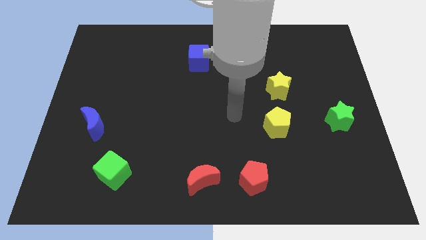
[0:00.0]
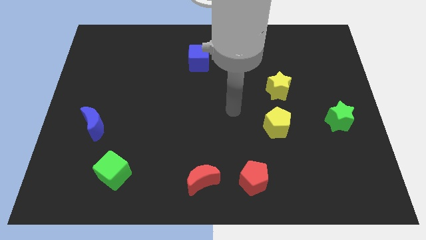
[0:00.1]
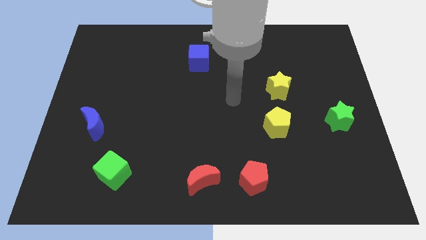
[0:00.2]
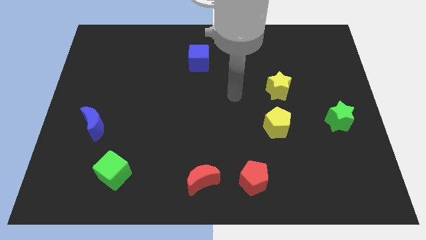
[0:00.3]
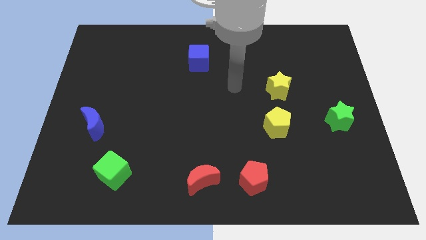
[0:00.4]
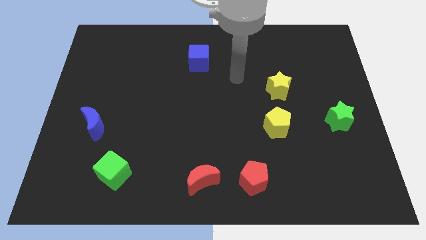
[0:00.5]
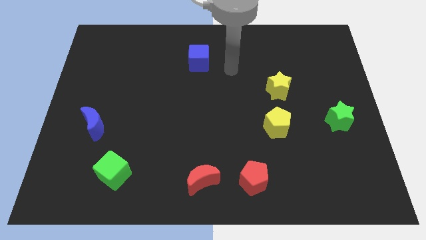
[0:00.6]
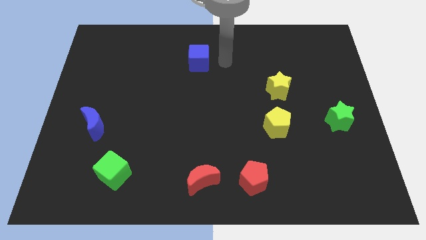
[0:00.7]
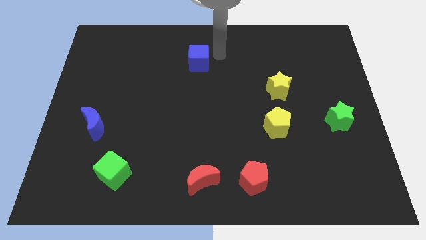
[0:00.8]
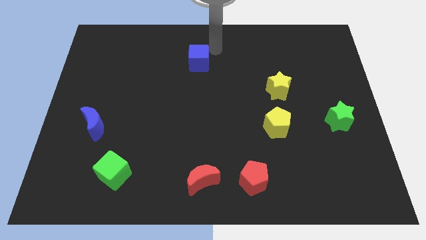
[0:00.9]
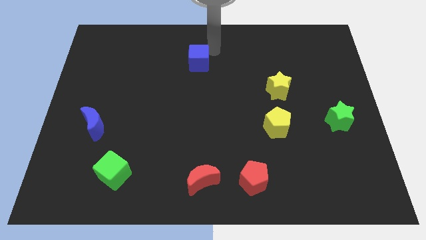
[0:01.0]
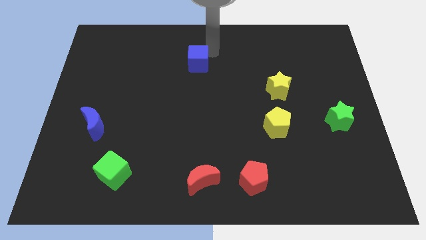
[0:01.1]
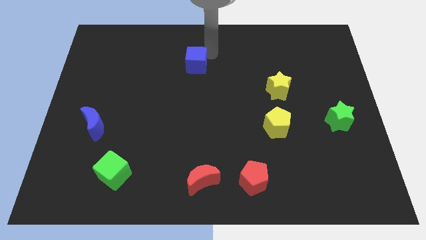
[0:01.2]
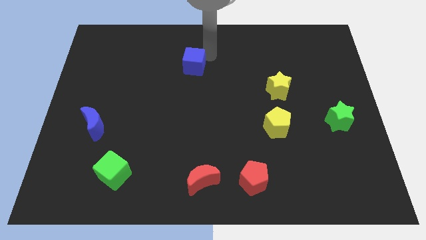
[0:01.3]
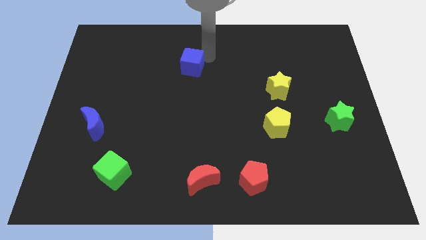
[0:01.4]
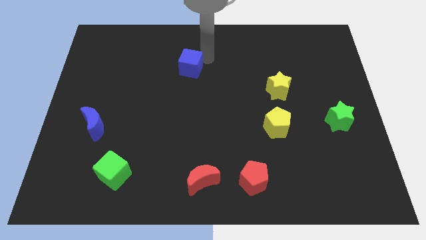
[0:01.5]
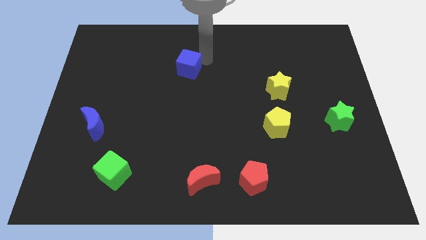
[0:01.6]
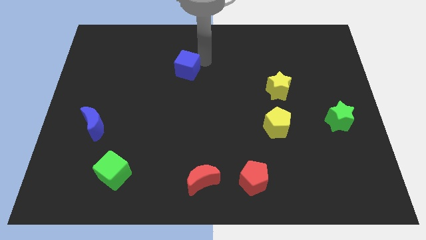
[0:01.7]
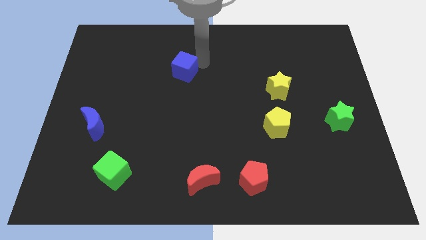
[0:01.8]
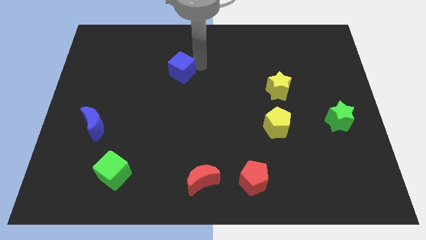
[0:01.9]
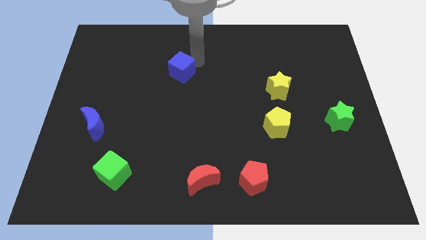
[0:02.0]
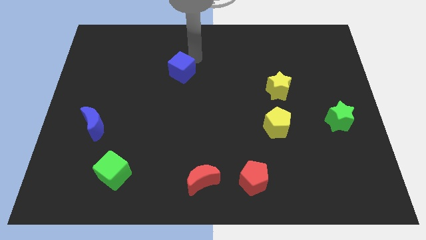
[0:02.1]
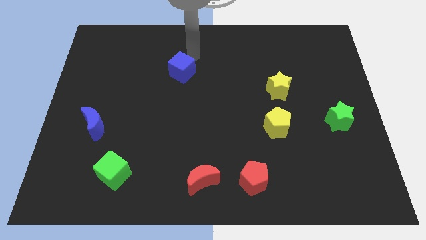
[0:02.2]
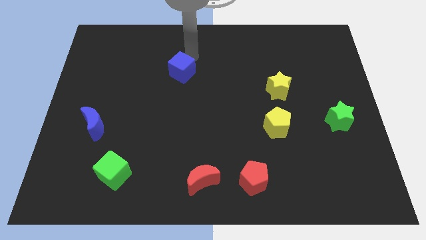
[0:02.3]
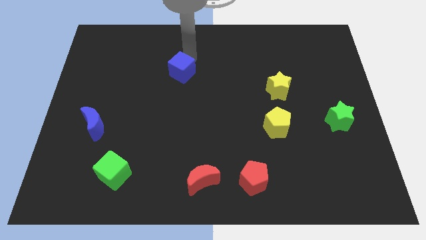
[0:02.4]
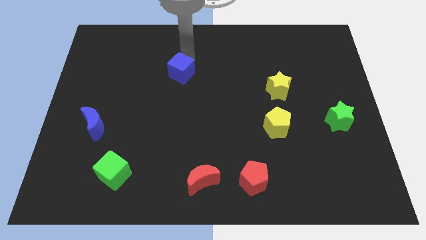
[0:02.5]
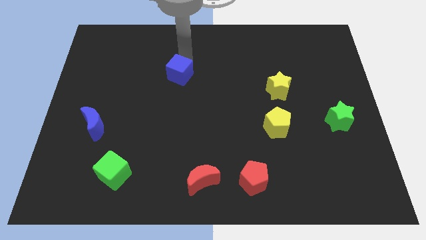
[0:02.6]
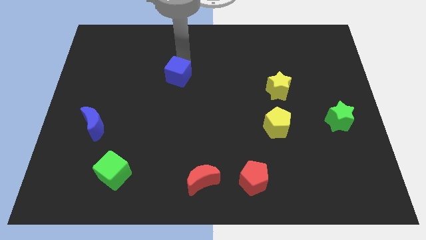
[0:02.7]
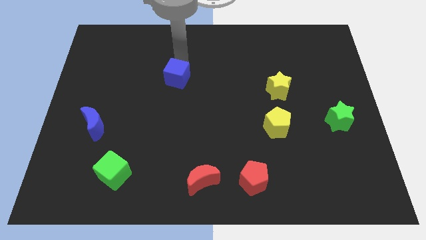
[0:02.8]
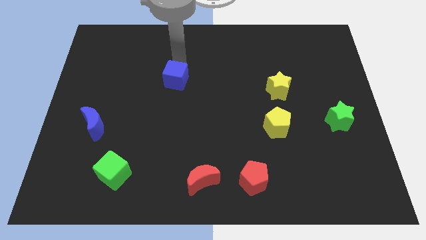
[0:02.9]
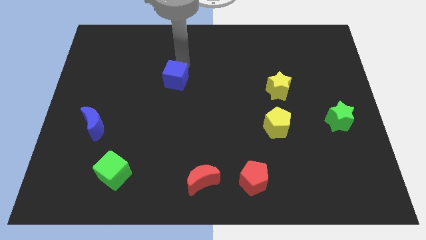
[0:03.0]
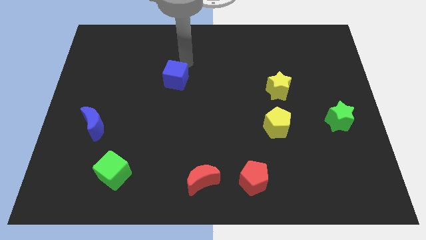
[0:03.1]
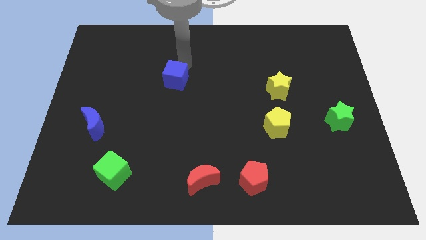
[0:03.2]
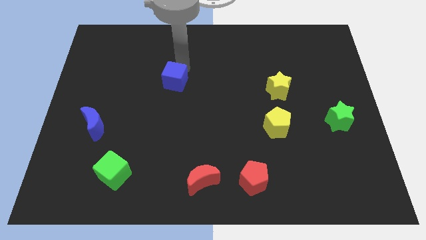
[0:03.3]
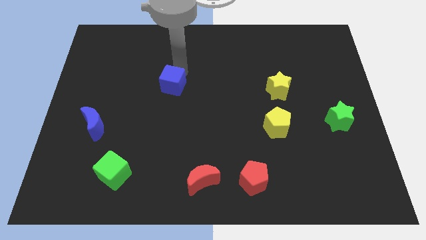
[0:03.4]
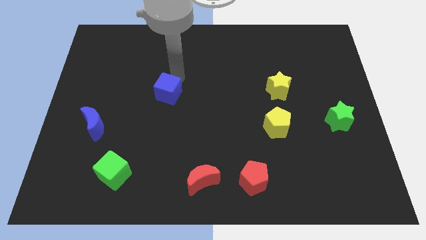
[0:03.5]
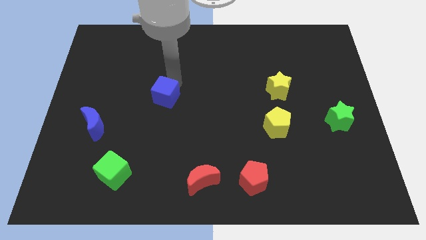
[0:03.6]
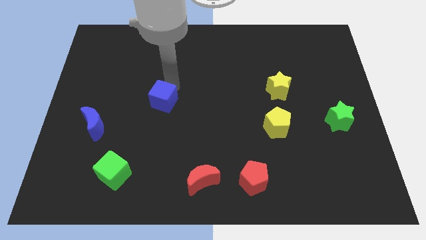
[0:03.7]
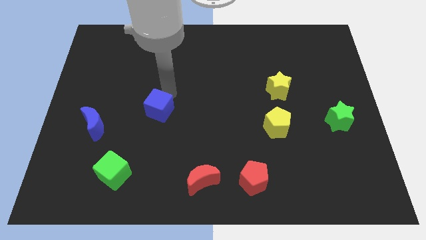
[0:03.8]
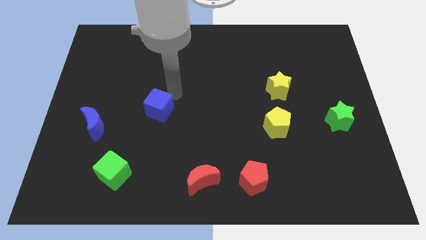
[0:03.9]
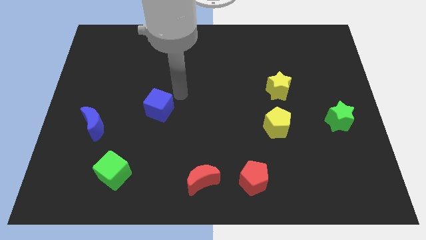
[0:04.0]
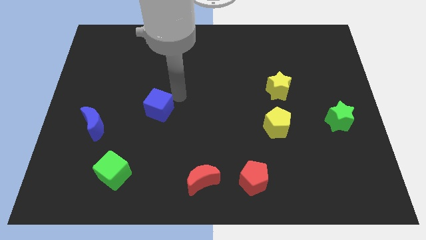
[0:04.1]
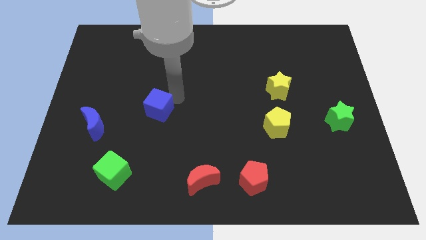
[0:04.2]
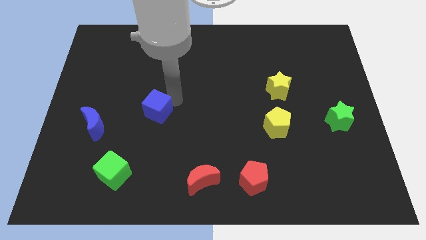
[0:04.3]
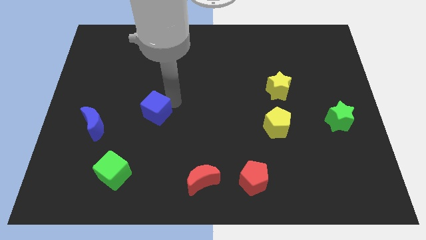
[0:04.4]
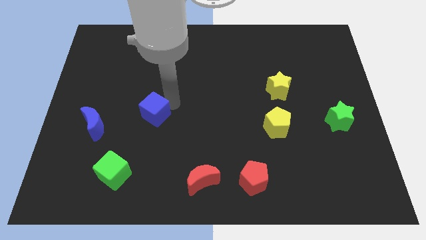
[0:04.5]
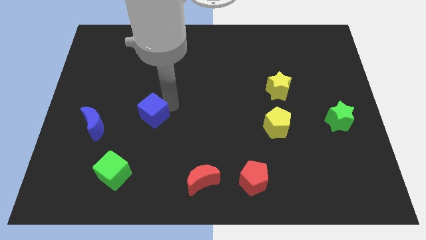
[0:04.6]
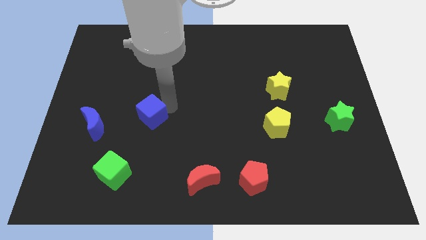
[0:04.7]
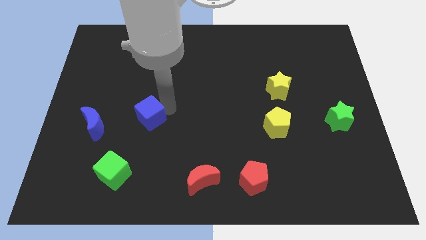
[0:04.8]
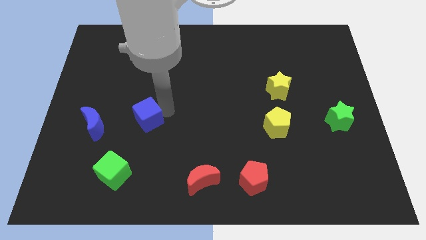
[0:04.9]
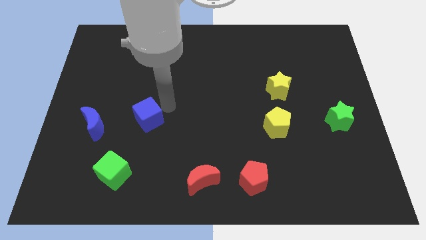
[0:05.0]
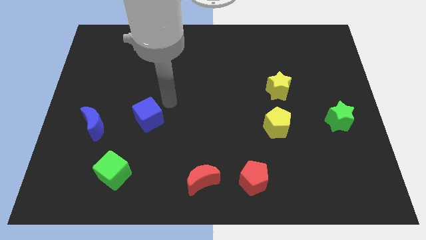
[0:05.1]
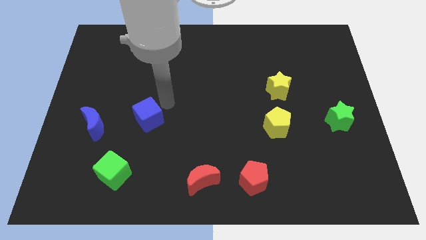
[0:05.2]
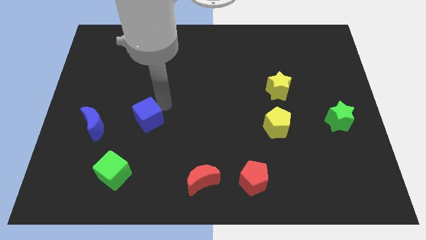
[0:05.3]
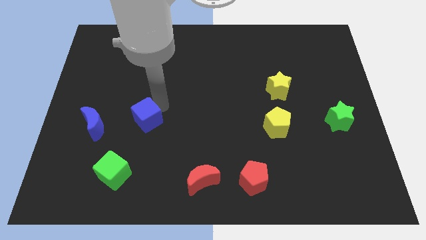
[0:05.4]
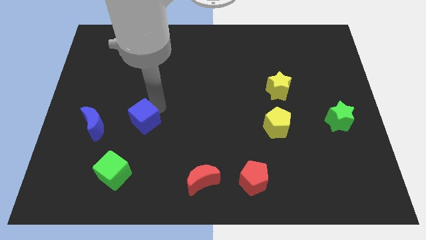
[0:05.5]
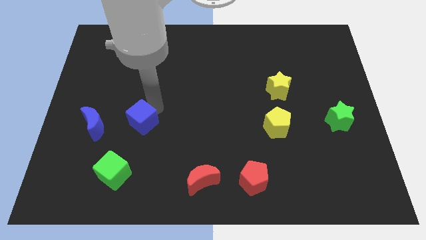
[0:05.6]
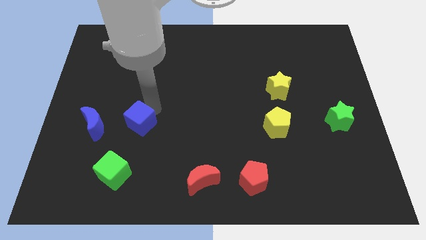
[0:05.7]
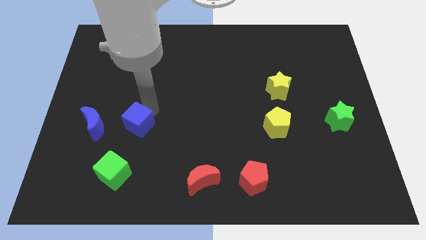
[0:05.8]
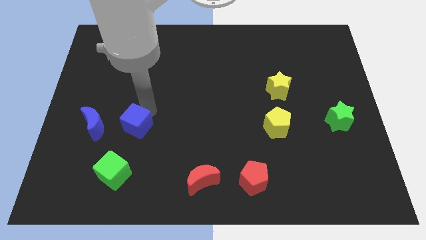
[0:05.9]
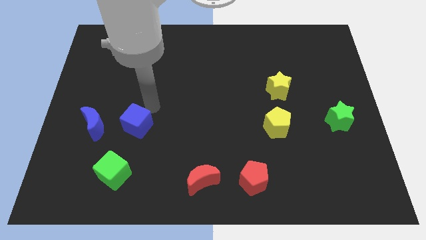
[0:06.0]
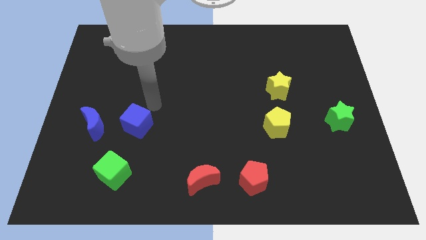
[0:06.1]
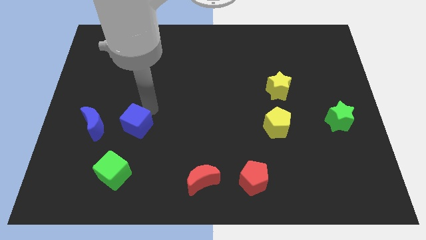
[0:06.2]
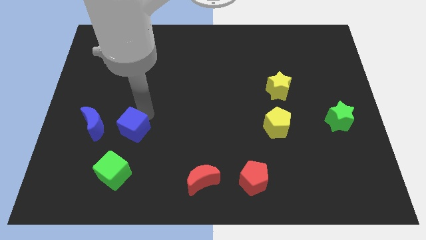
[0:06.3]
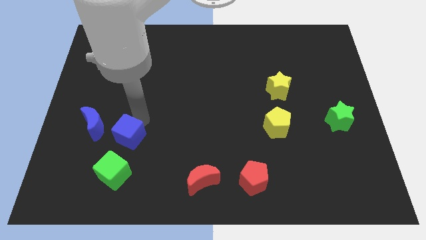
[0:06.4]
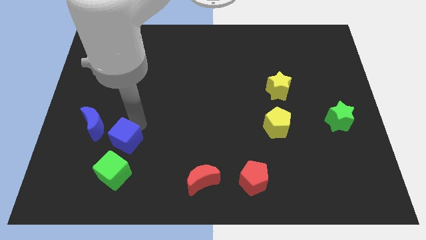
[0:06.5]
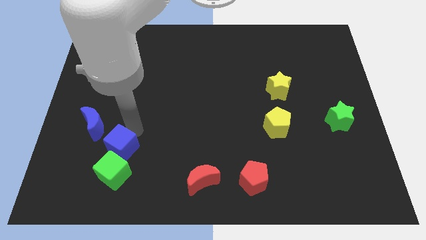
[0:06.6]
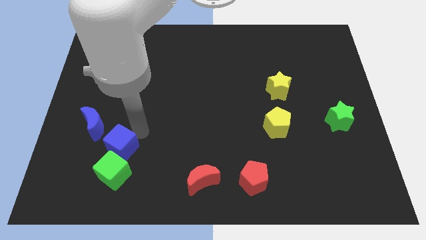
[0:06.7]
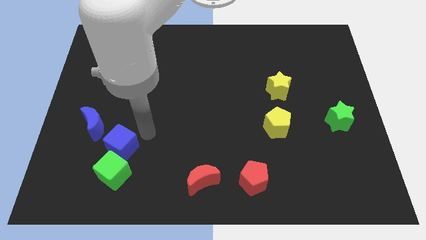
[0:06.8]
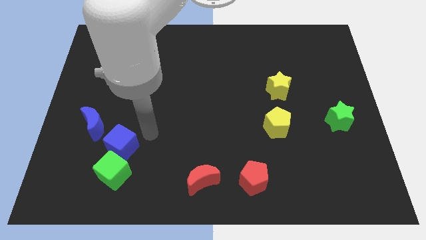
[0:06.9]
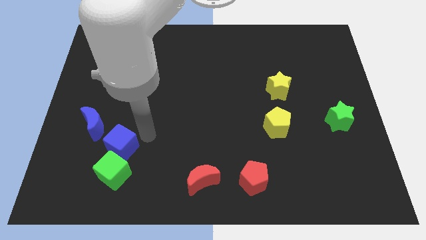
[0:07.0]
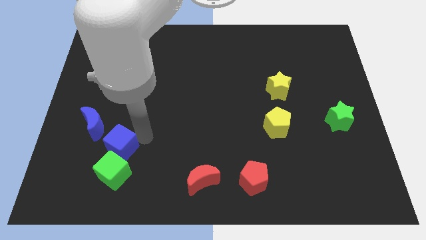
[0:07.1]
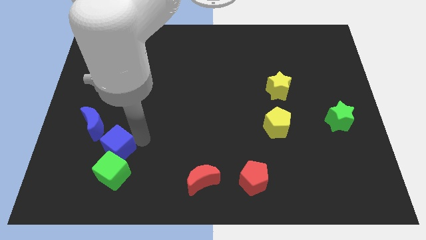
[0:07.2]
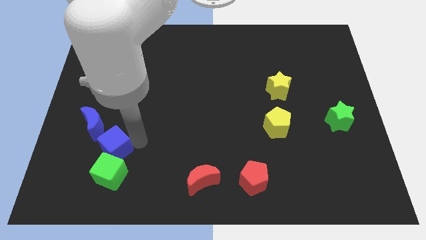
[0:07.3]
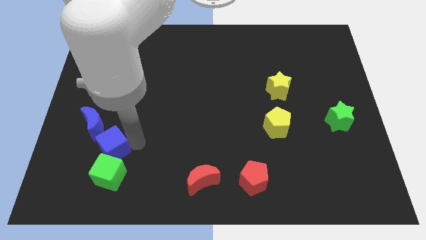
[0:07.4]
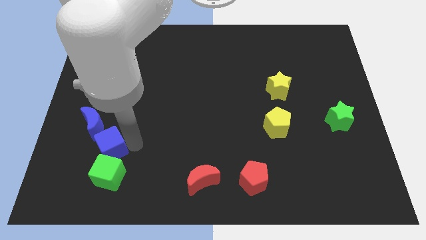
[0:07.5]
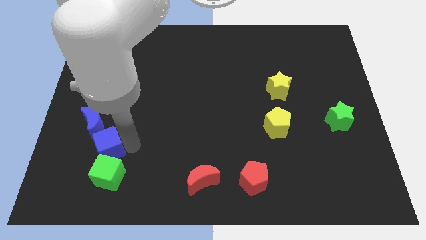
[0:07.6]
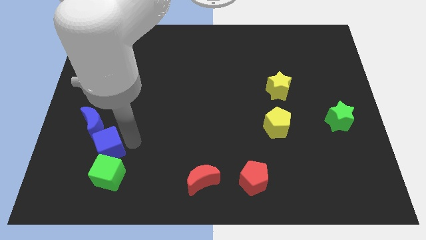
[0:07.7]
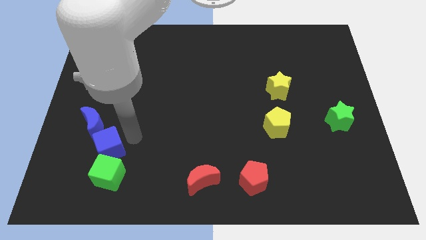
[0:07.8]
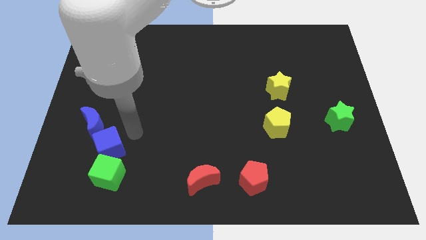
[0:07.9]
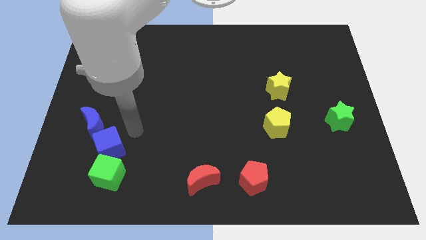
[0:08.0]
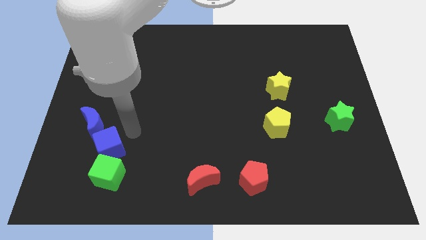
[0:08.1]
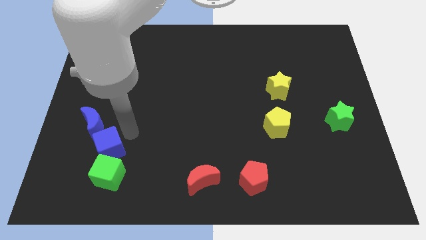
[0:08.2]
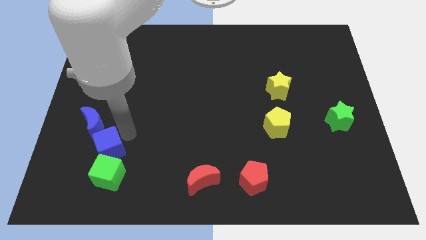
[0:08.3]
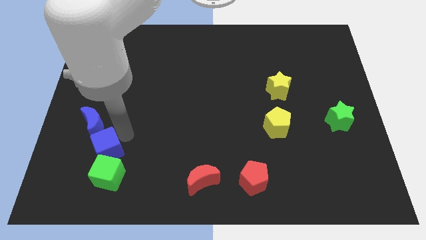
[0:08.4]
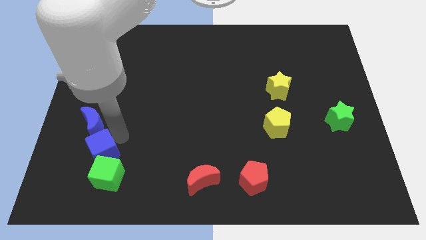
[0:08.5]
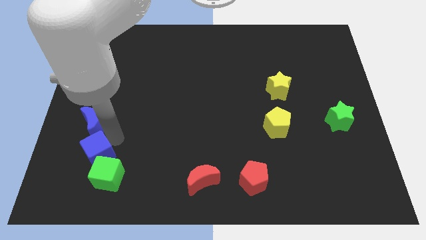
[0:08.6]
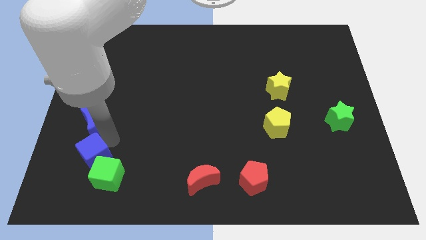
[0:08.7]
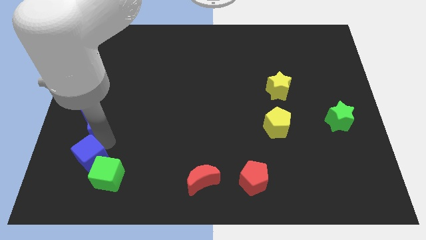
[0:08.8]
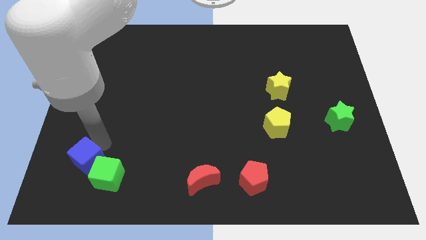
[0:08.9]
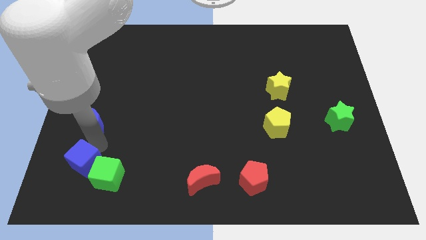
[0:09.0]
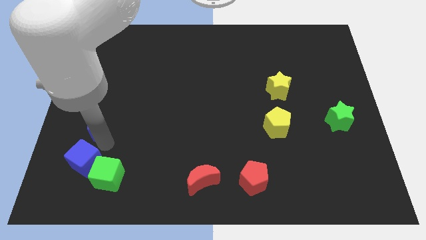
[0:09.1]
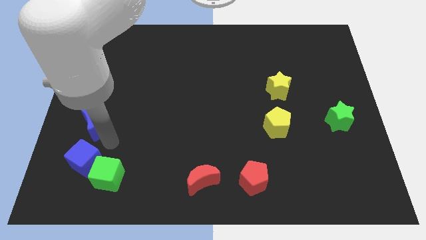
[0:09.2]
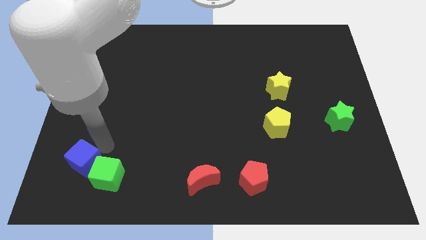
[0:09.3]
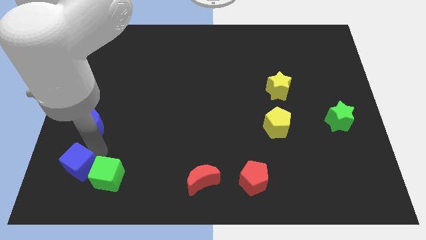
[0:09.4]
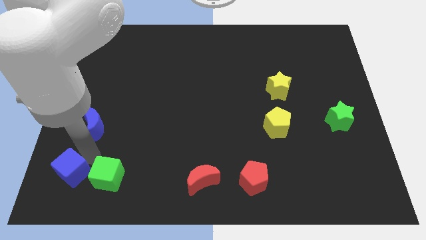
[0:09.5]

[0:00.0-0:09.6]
push the blue cube to the lower left corner
